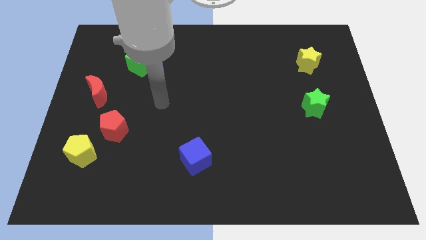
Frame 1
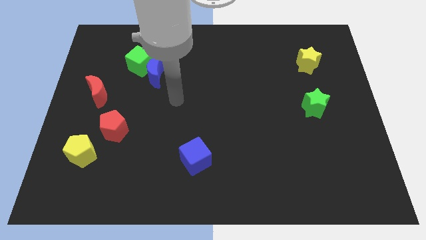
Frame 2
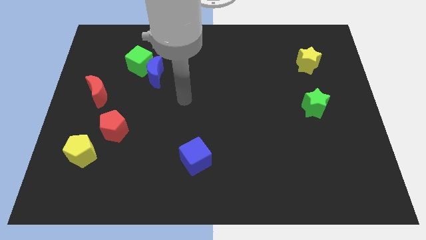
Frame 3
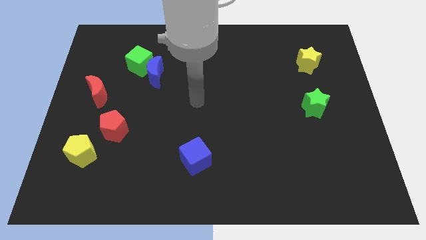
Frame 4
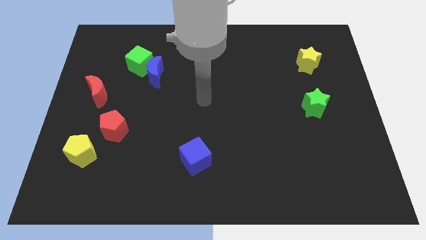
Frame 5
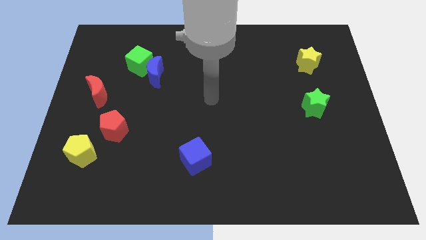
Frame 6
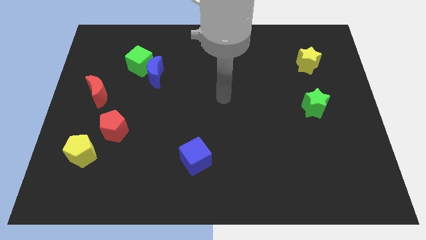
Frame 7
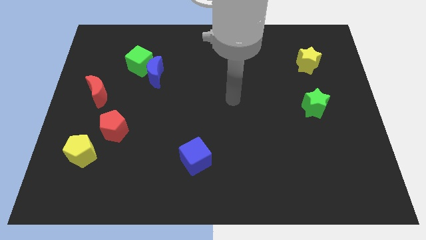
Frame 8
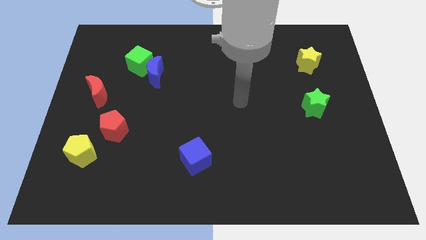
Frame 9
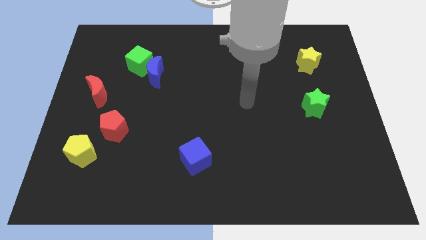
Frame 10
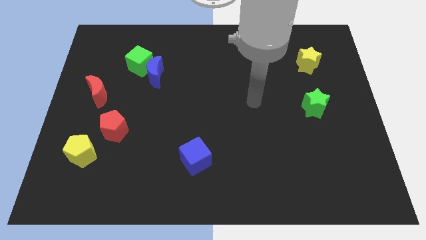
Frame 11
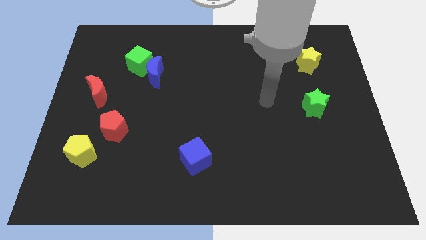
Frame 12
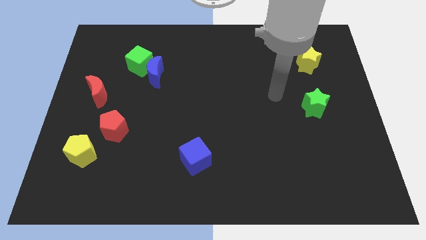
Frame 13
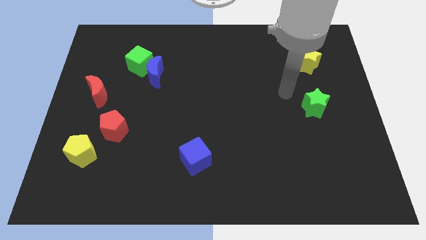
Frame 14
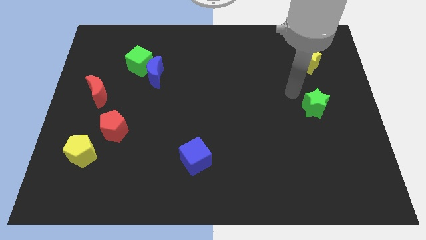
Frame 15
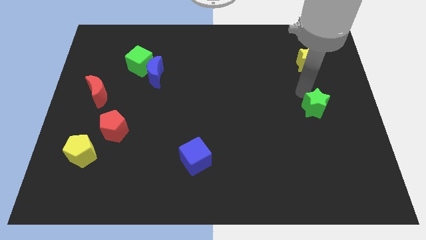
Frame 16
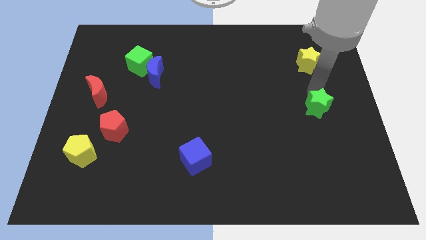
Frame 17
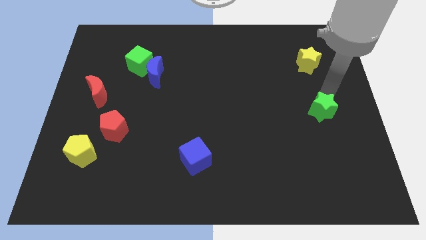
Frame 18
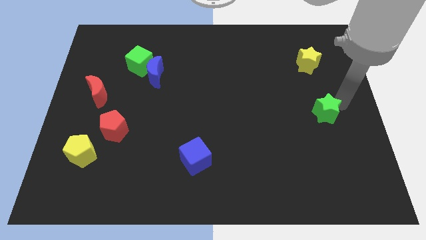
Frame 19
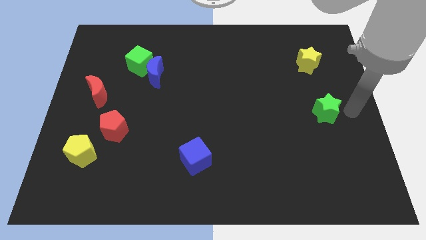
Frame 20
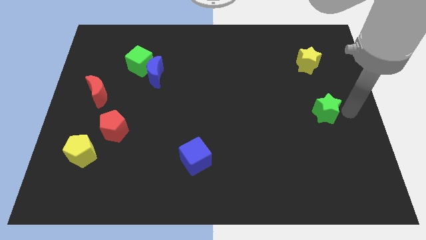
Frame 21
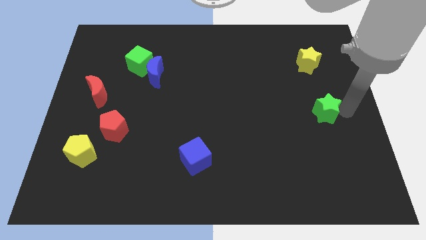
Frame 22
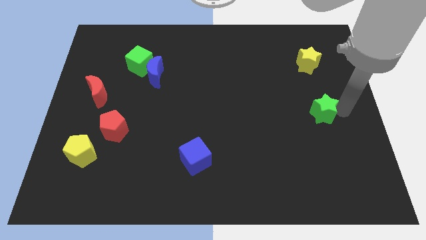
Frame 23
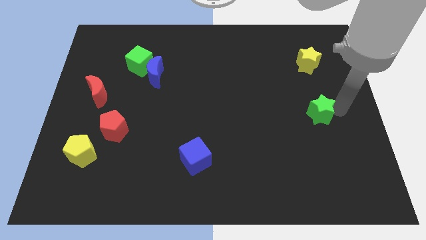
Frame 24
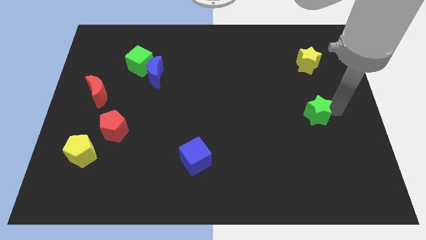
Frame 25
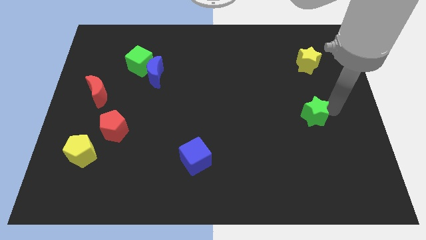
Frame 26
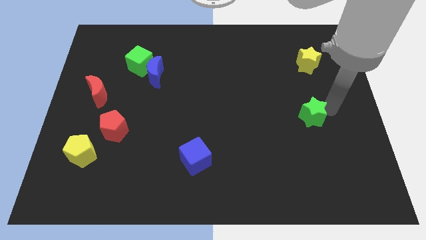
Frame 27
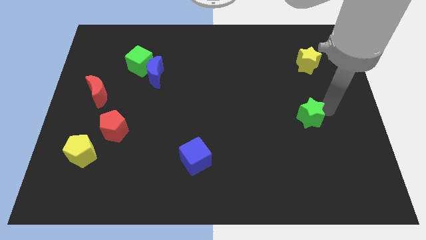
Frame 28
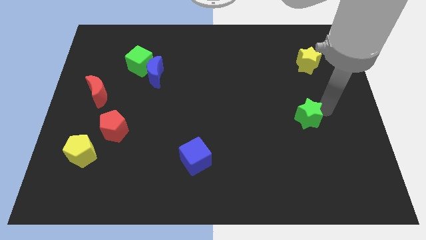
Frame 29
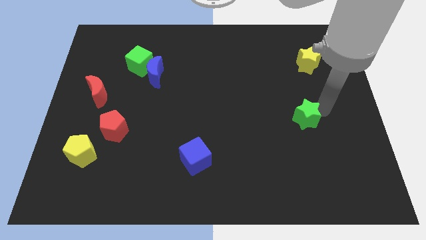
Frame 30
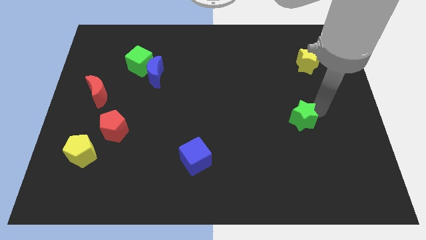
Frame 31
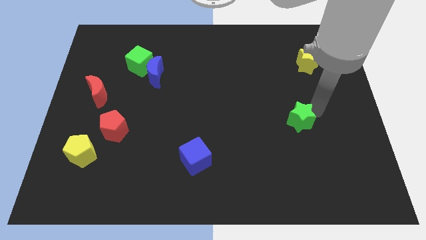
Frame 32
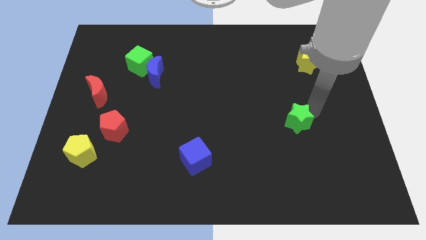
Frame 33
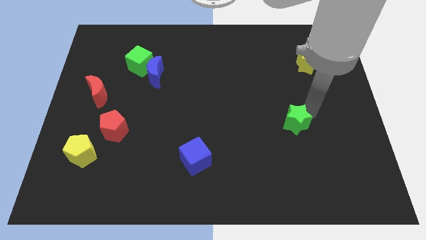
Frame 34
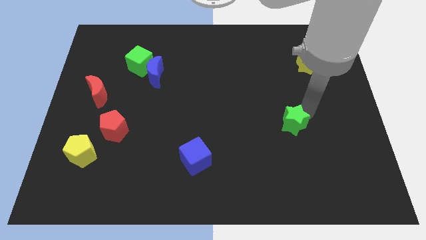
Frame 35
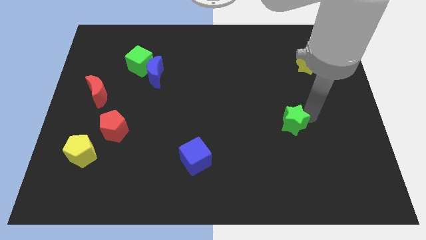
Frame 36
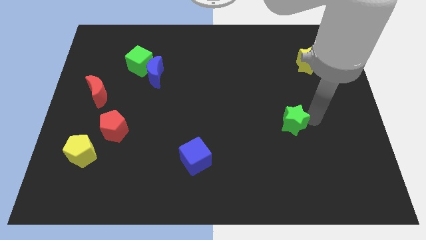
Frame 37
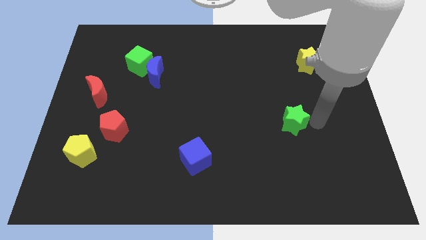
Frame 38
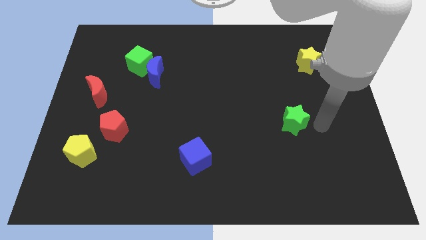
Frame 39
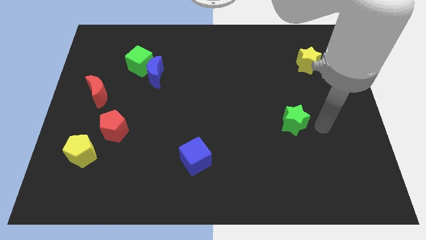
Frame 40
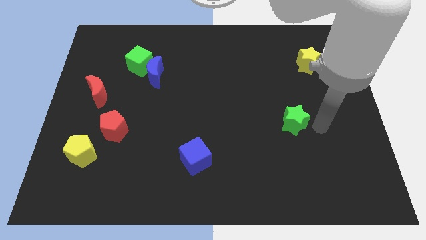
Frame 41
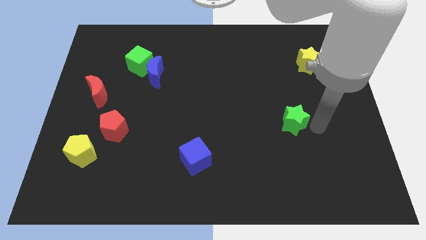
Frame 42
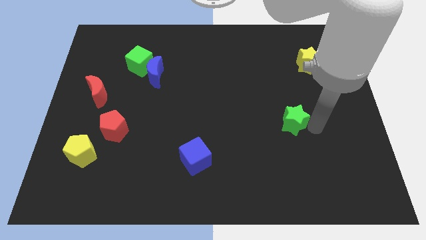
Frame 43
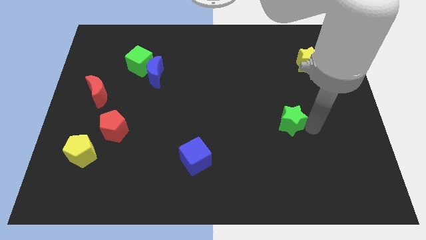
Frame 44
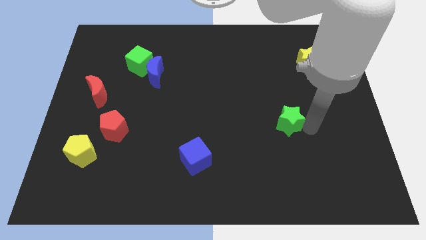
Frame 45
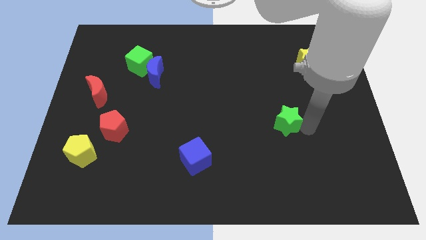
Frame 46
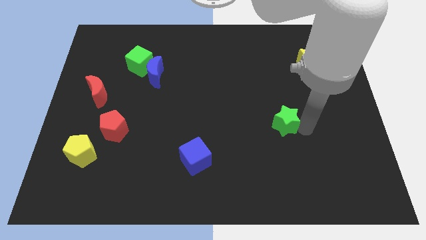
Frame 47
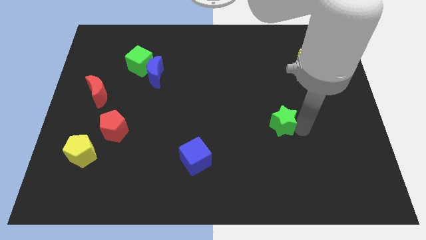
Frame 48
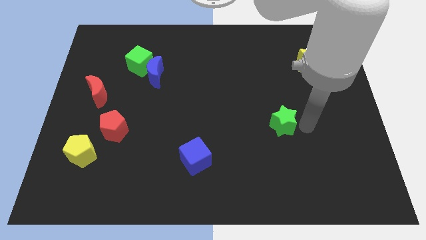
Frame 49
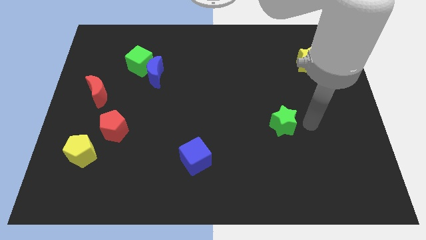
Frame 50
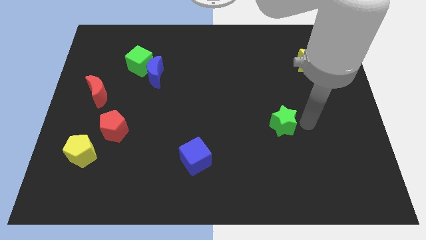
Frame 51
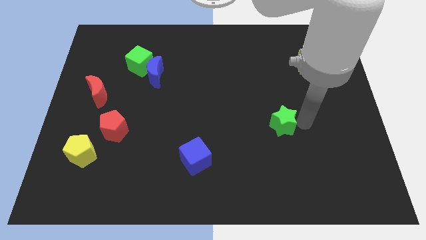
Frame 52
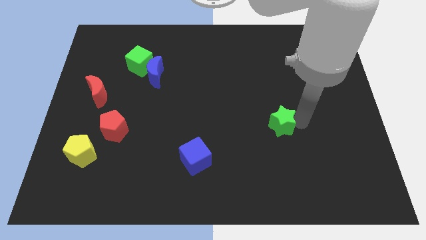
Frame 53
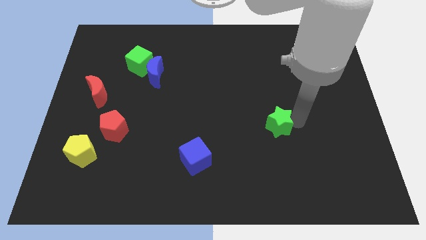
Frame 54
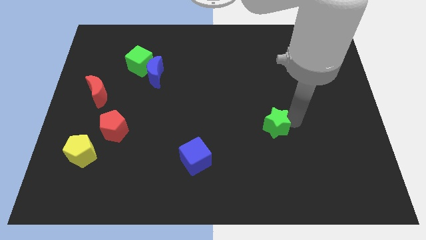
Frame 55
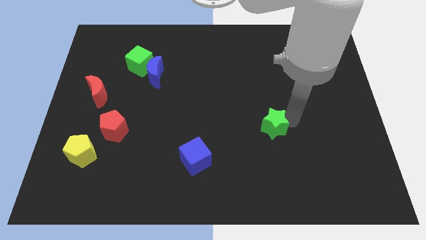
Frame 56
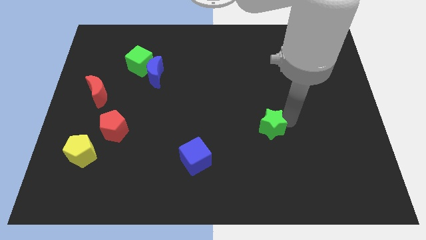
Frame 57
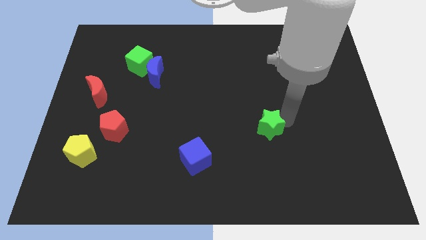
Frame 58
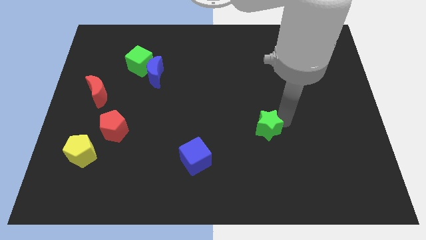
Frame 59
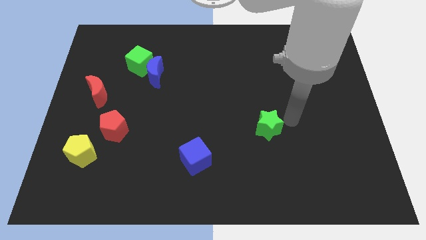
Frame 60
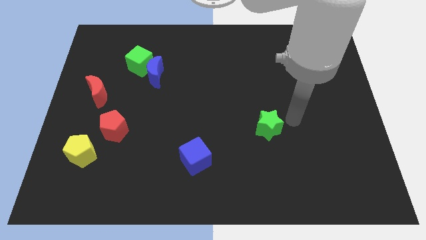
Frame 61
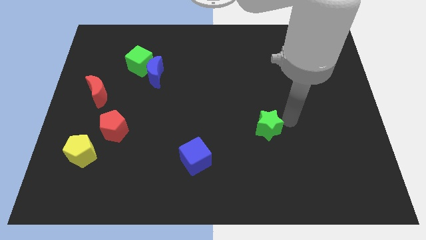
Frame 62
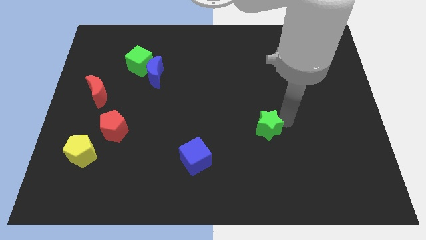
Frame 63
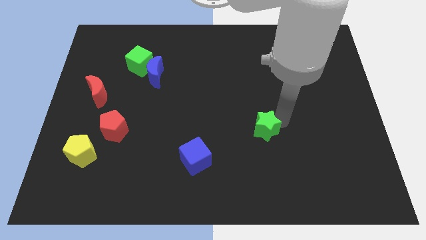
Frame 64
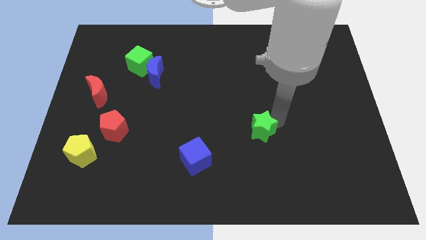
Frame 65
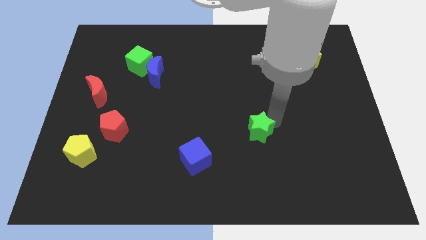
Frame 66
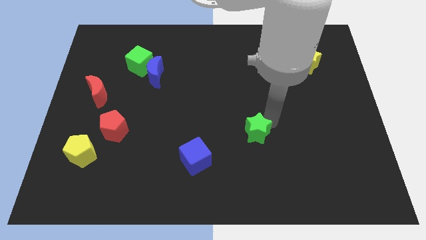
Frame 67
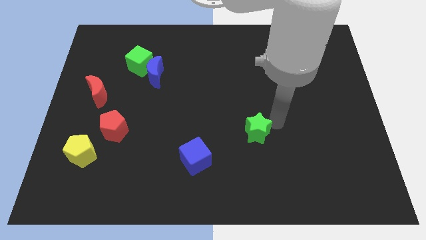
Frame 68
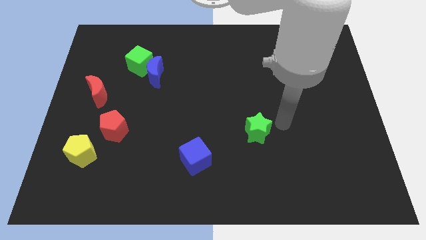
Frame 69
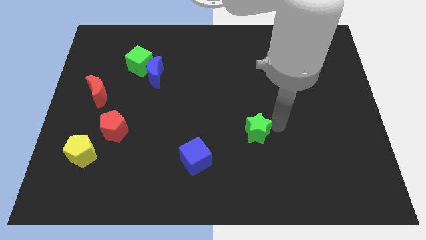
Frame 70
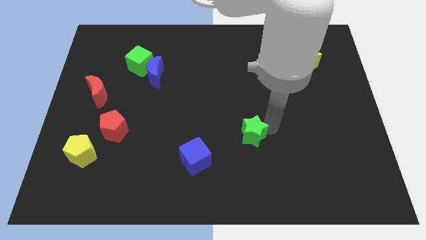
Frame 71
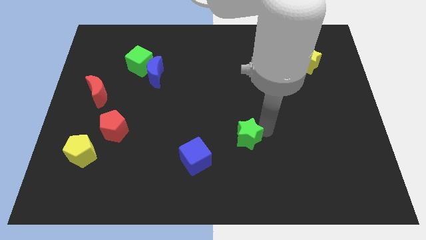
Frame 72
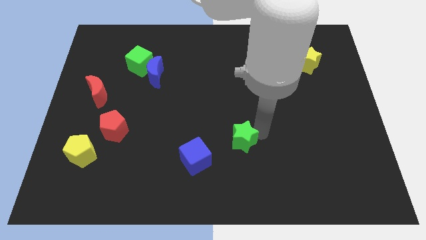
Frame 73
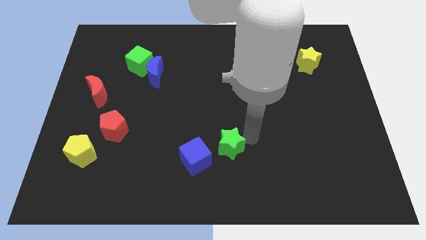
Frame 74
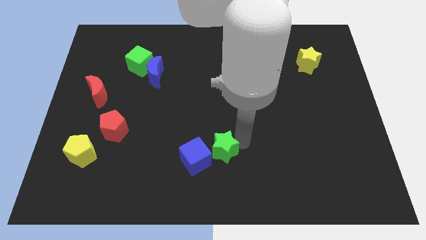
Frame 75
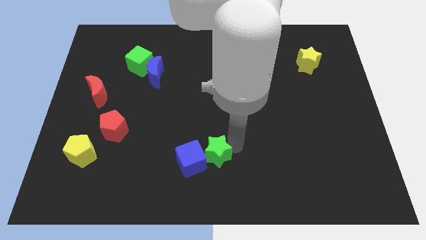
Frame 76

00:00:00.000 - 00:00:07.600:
put the green star next to the blue cube
